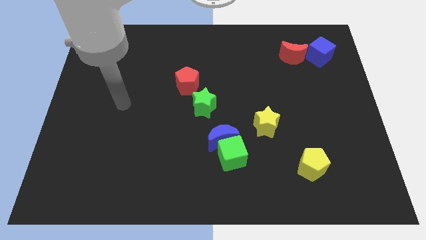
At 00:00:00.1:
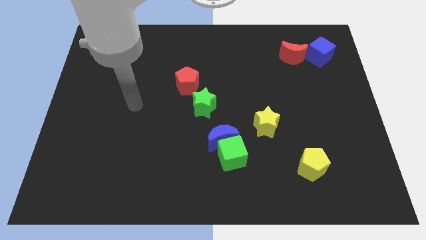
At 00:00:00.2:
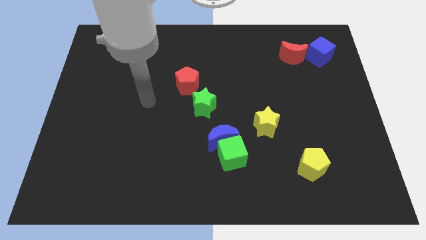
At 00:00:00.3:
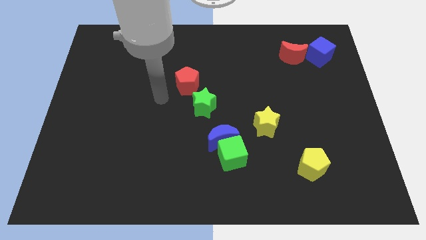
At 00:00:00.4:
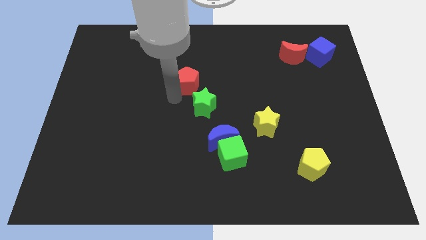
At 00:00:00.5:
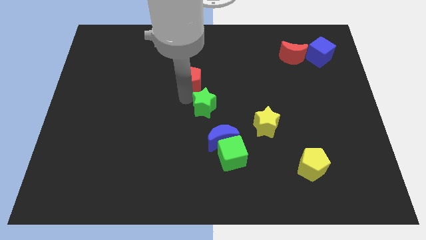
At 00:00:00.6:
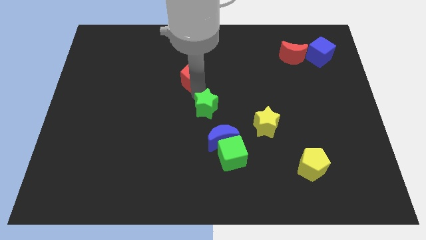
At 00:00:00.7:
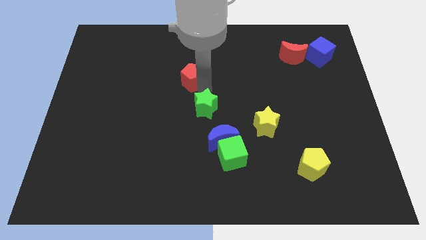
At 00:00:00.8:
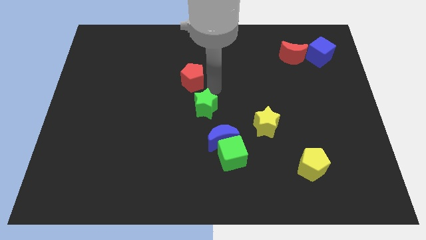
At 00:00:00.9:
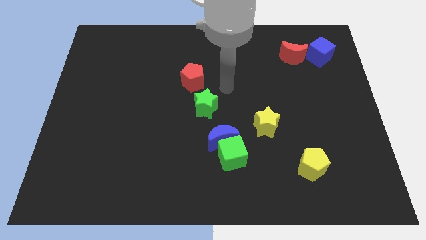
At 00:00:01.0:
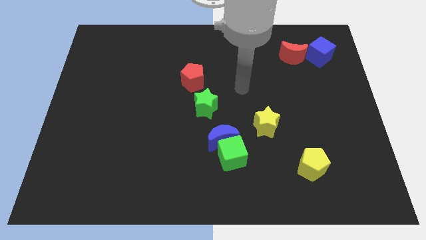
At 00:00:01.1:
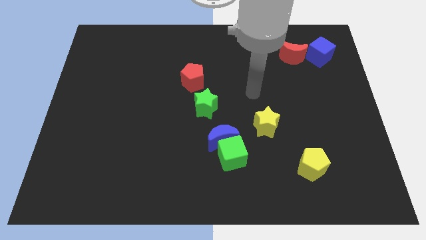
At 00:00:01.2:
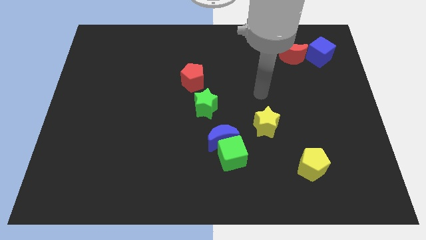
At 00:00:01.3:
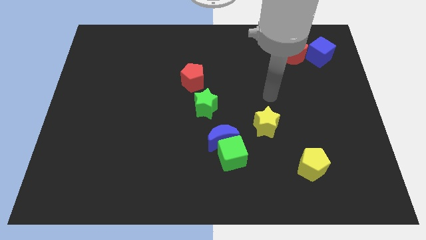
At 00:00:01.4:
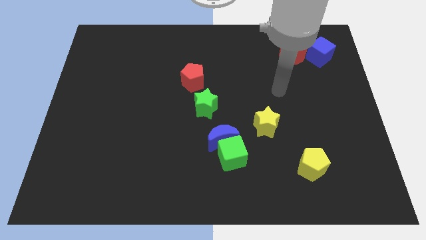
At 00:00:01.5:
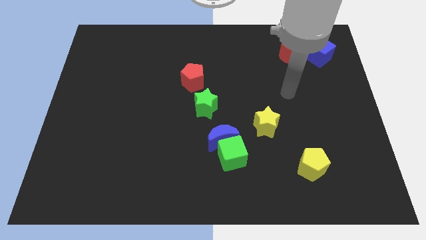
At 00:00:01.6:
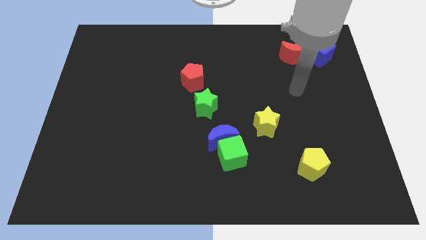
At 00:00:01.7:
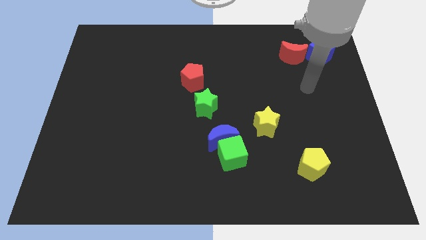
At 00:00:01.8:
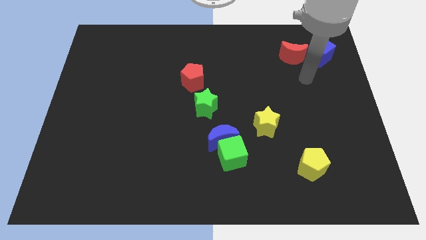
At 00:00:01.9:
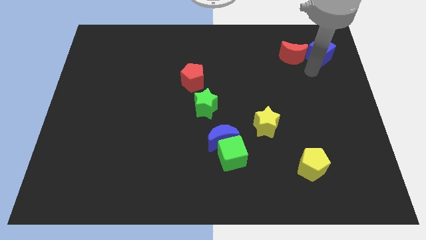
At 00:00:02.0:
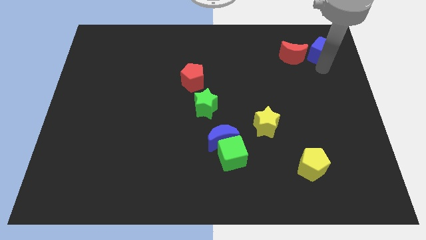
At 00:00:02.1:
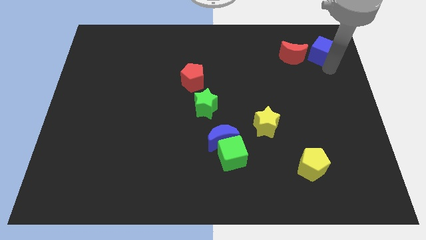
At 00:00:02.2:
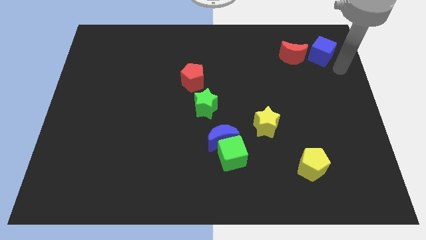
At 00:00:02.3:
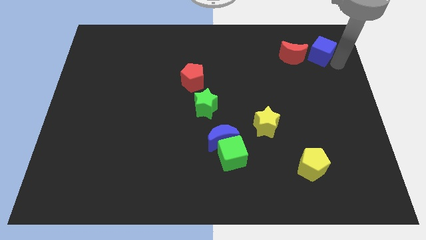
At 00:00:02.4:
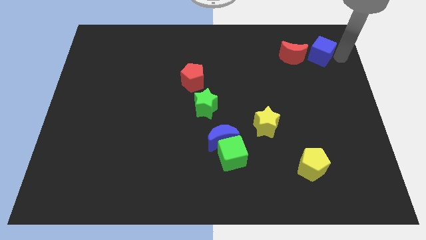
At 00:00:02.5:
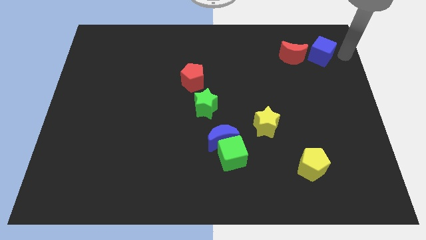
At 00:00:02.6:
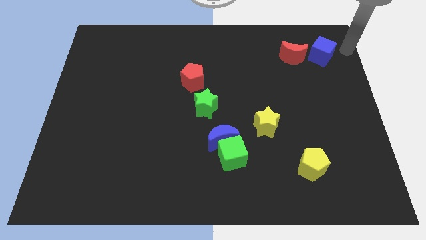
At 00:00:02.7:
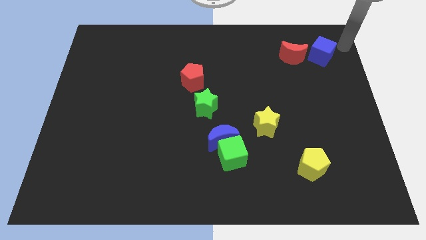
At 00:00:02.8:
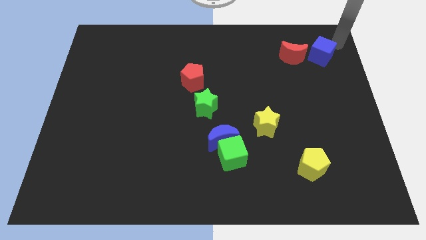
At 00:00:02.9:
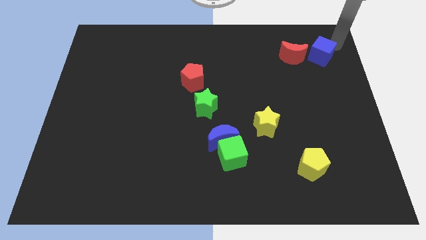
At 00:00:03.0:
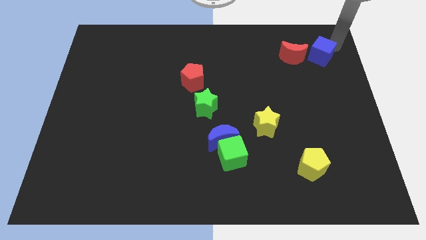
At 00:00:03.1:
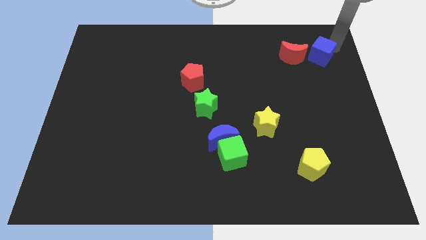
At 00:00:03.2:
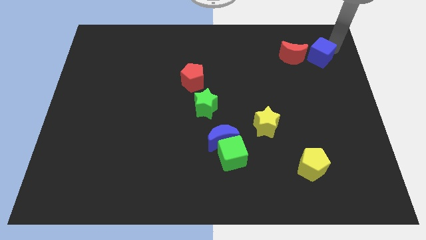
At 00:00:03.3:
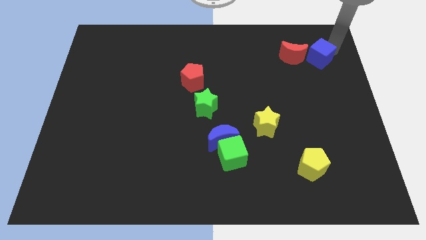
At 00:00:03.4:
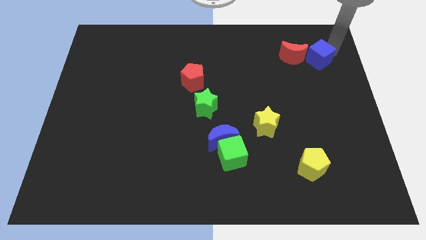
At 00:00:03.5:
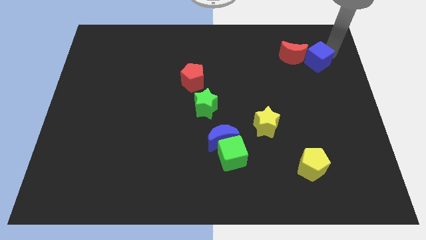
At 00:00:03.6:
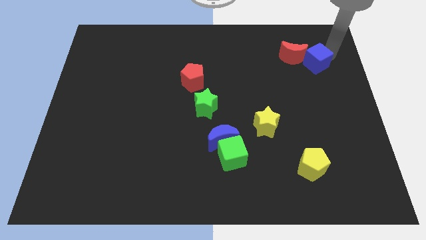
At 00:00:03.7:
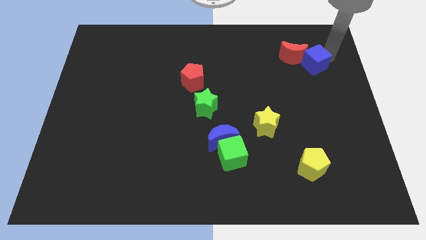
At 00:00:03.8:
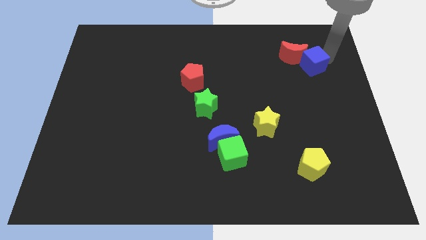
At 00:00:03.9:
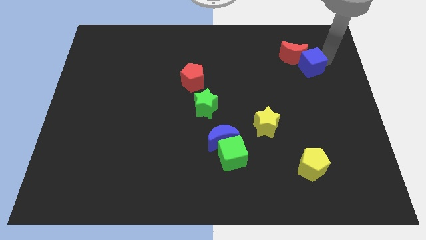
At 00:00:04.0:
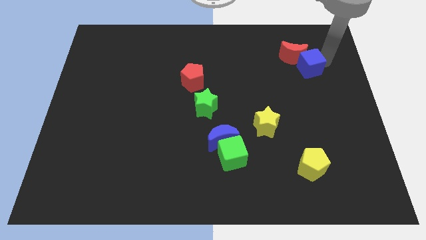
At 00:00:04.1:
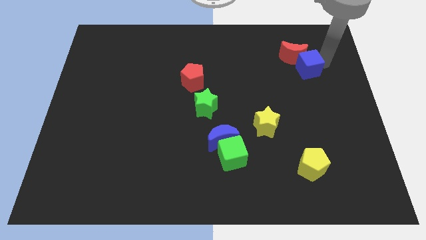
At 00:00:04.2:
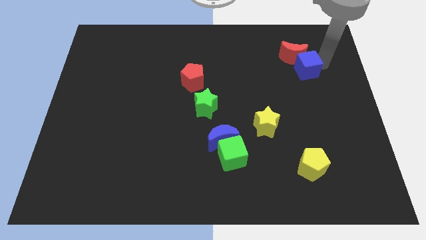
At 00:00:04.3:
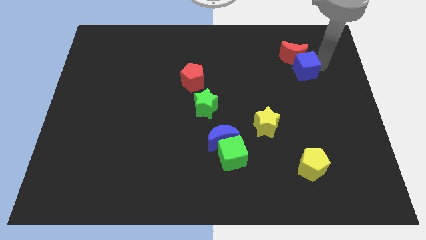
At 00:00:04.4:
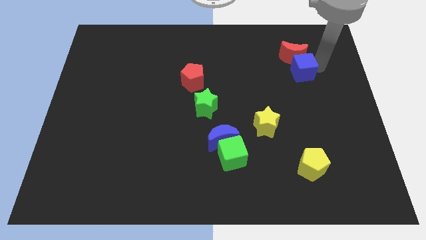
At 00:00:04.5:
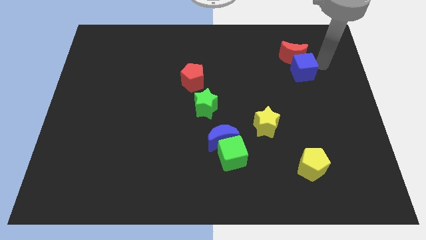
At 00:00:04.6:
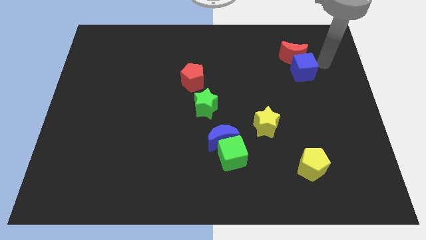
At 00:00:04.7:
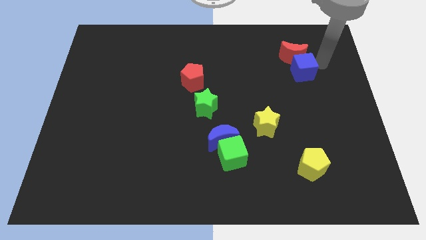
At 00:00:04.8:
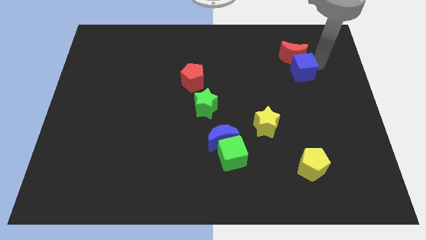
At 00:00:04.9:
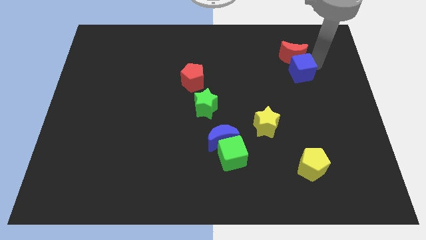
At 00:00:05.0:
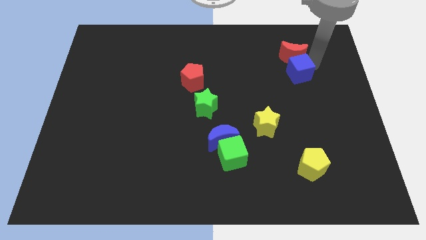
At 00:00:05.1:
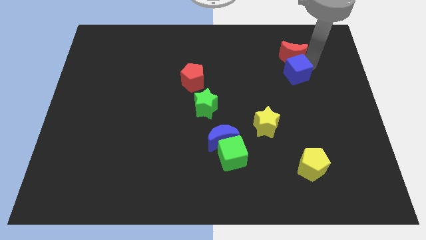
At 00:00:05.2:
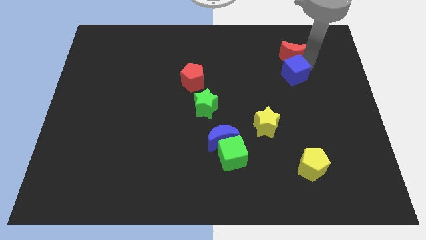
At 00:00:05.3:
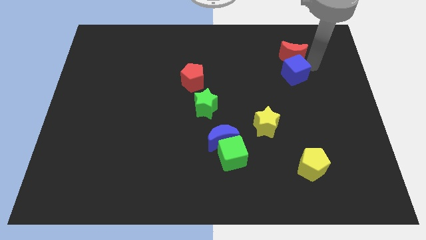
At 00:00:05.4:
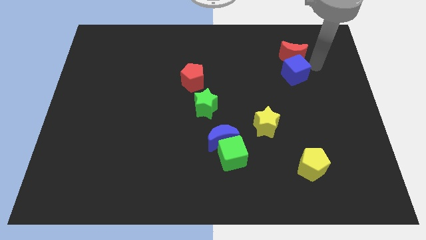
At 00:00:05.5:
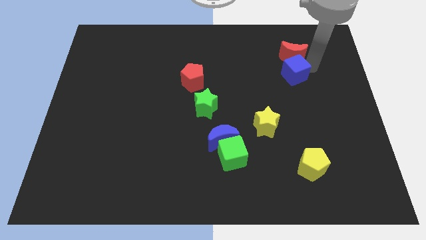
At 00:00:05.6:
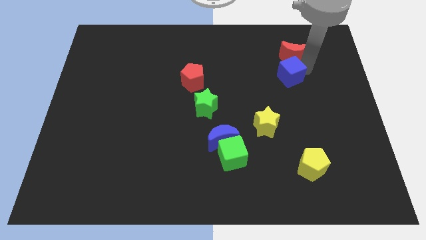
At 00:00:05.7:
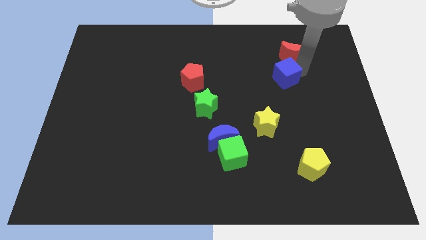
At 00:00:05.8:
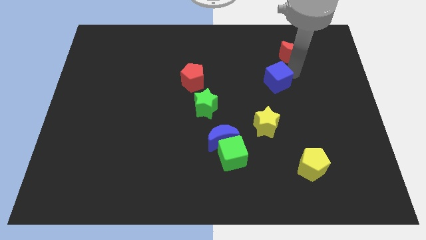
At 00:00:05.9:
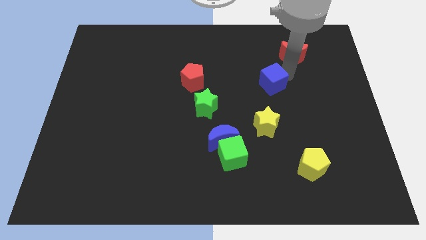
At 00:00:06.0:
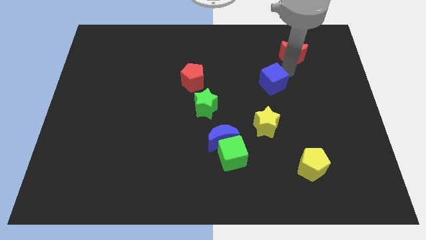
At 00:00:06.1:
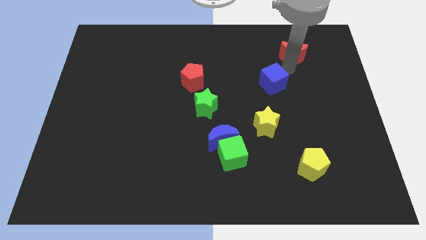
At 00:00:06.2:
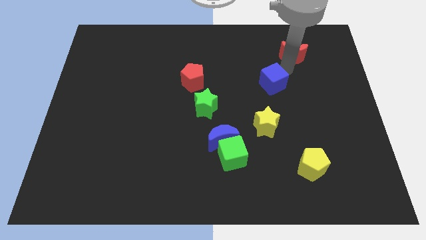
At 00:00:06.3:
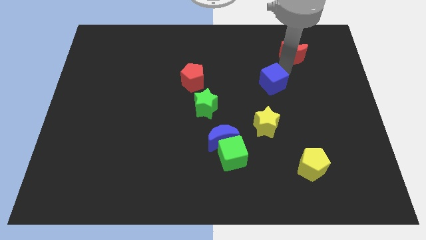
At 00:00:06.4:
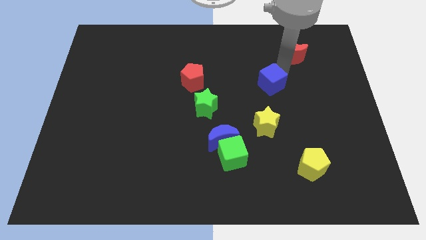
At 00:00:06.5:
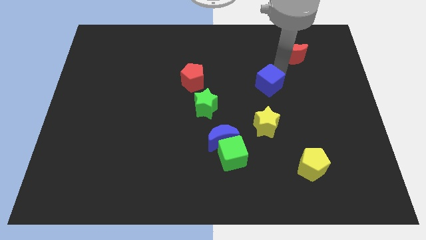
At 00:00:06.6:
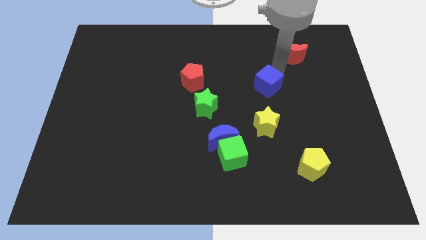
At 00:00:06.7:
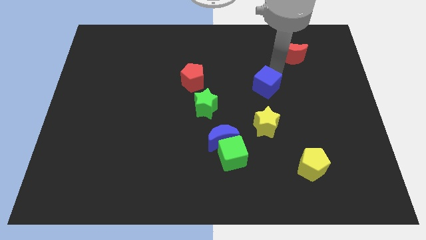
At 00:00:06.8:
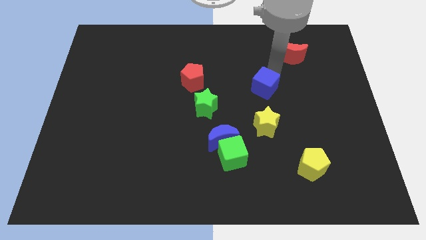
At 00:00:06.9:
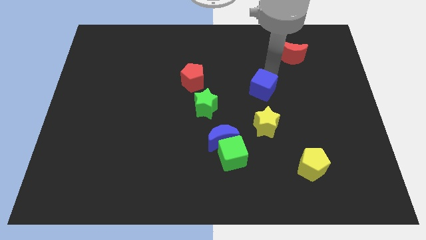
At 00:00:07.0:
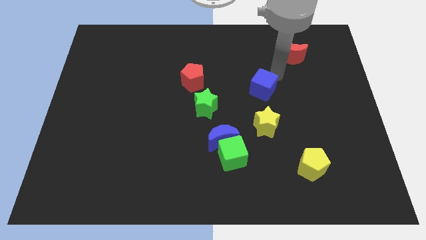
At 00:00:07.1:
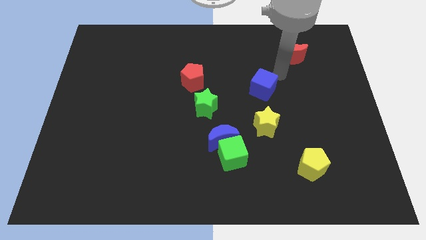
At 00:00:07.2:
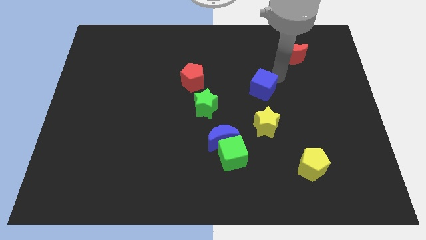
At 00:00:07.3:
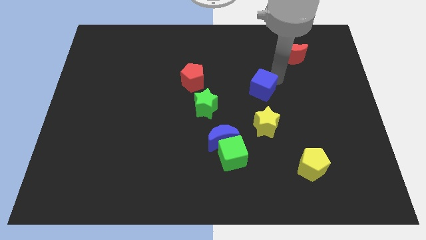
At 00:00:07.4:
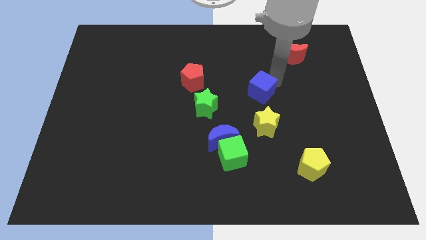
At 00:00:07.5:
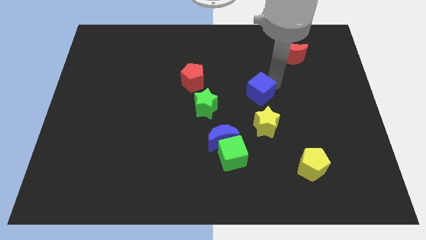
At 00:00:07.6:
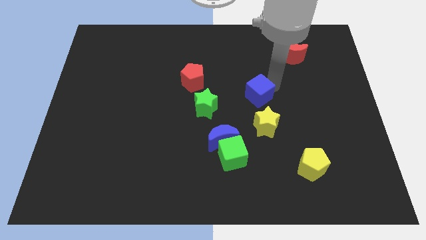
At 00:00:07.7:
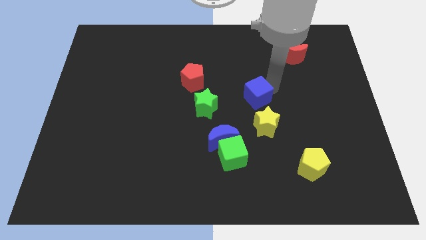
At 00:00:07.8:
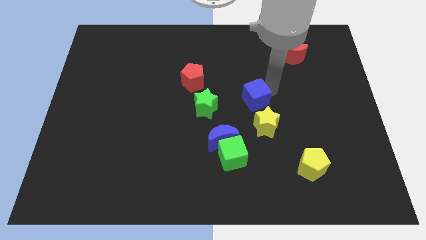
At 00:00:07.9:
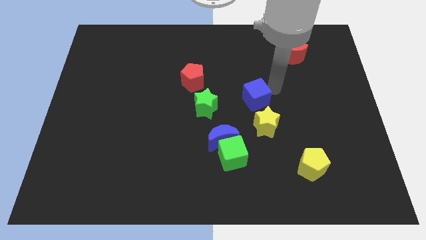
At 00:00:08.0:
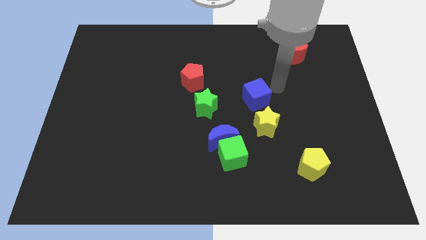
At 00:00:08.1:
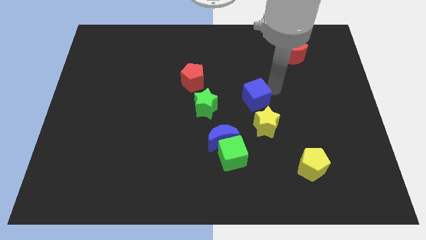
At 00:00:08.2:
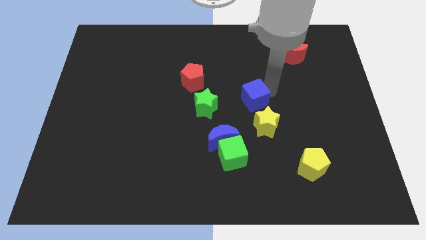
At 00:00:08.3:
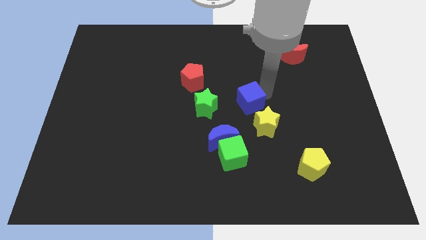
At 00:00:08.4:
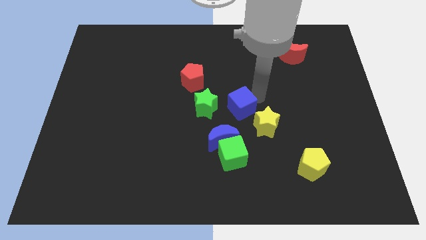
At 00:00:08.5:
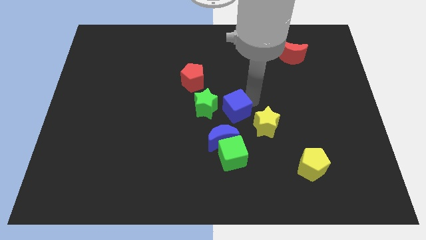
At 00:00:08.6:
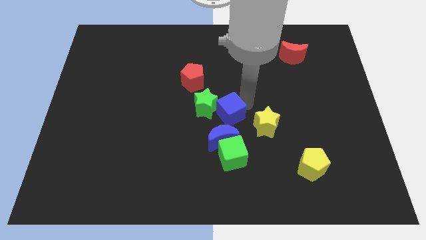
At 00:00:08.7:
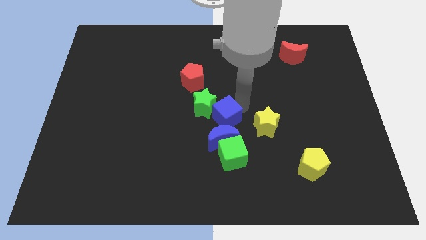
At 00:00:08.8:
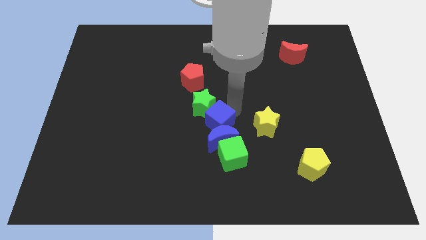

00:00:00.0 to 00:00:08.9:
put the blue cube to the bottom of the green star
